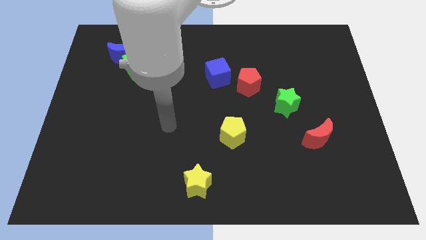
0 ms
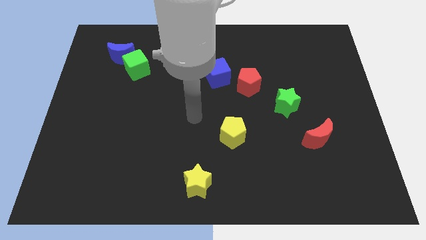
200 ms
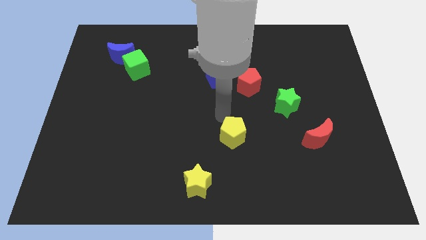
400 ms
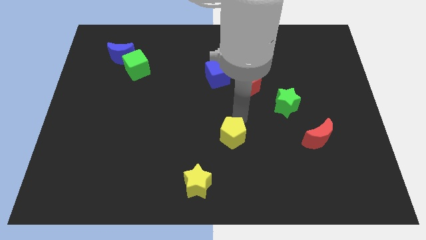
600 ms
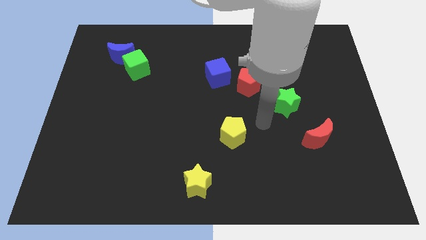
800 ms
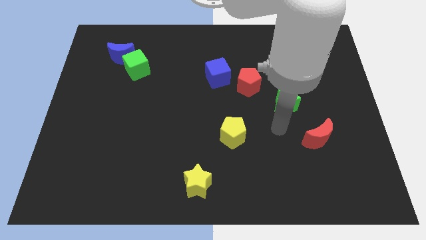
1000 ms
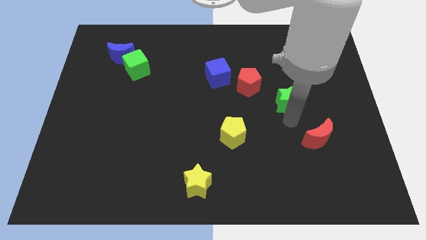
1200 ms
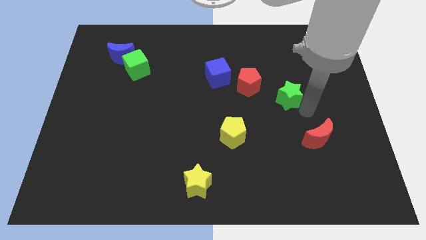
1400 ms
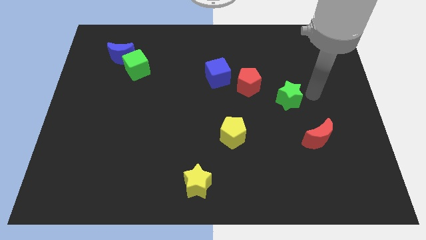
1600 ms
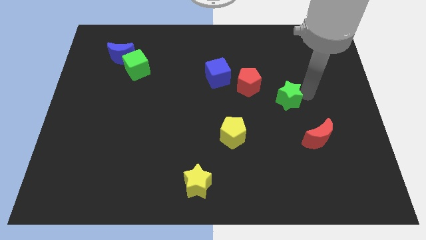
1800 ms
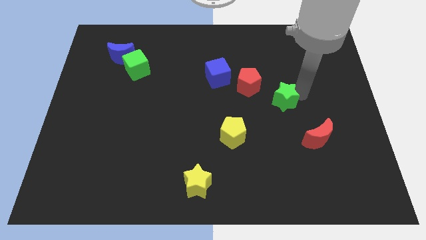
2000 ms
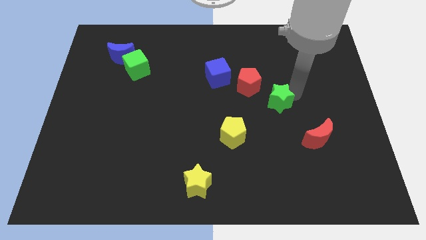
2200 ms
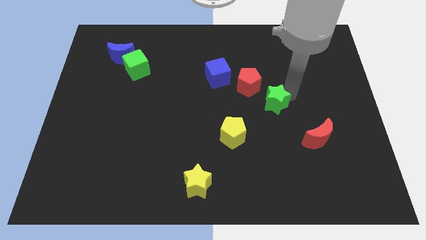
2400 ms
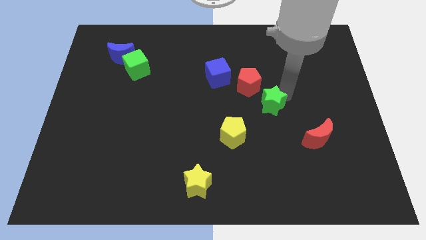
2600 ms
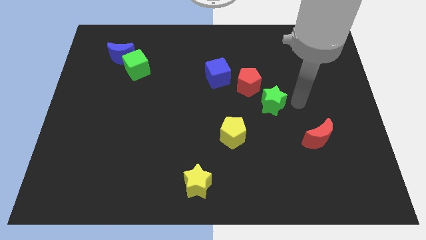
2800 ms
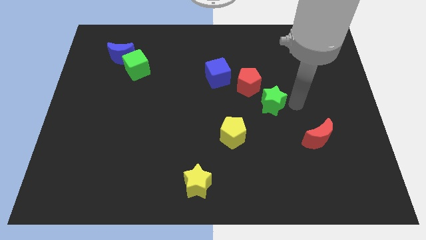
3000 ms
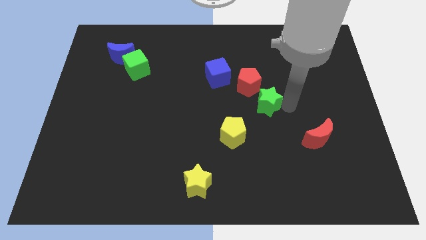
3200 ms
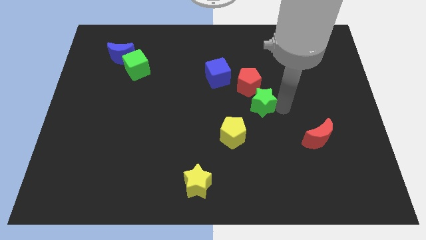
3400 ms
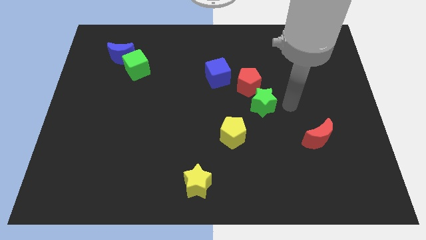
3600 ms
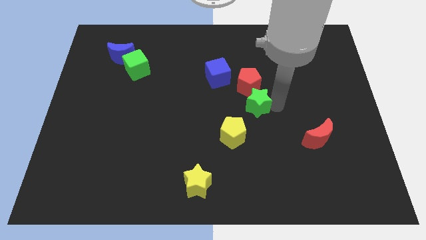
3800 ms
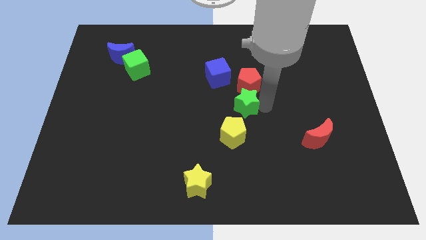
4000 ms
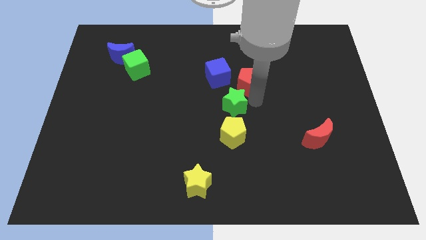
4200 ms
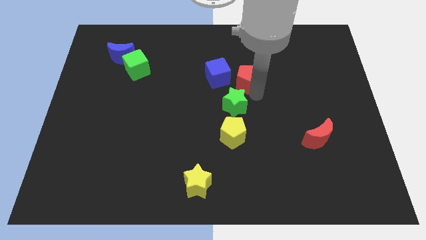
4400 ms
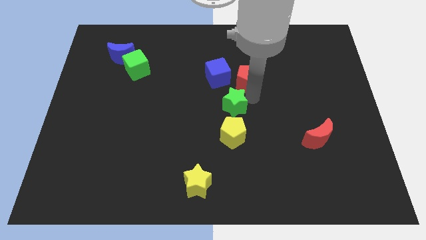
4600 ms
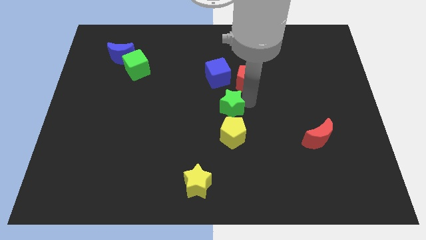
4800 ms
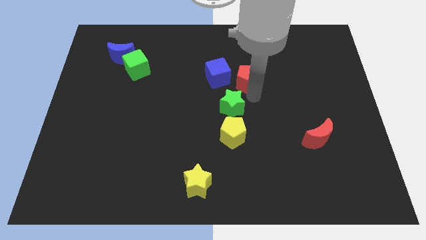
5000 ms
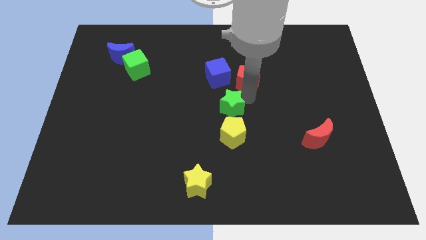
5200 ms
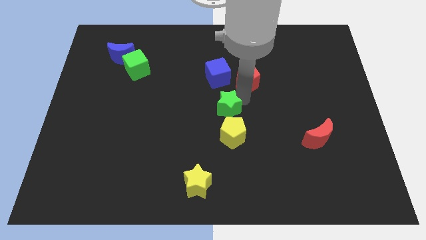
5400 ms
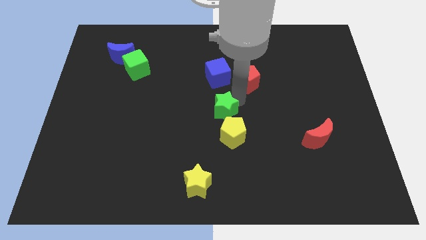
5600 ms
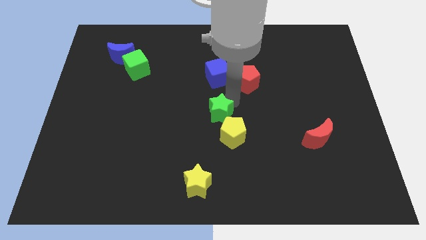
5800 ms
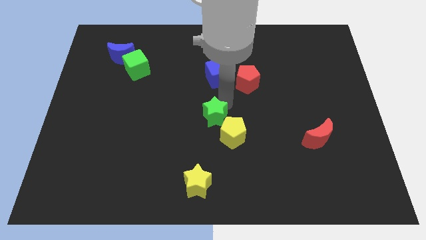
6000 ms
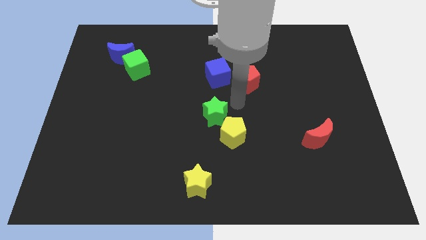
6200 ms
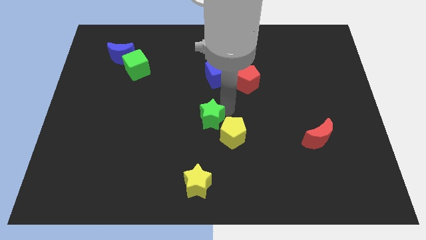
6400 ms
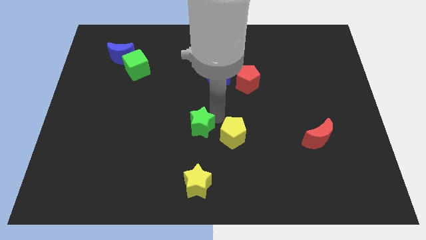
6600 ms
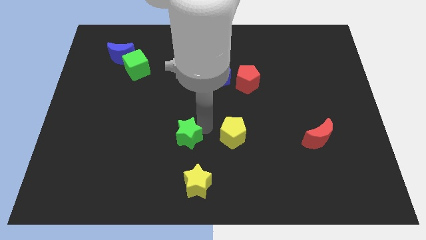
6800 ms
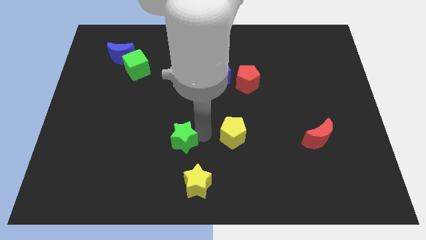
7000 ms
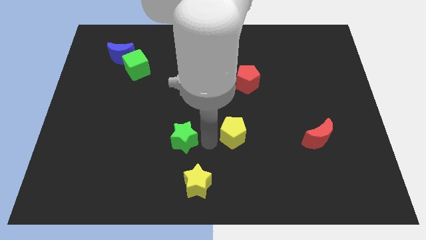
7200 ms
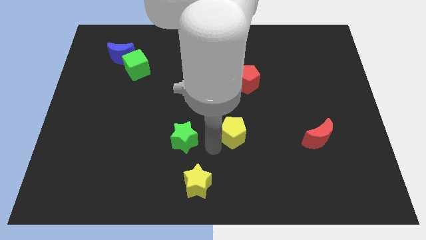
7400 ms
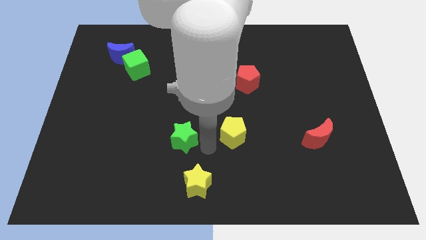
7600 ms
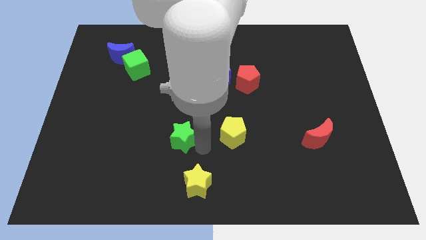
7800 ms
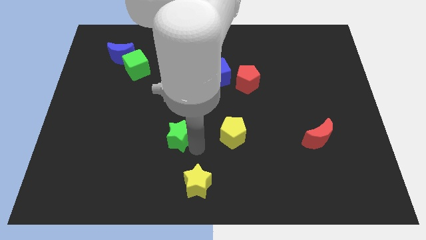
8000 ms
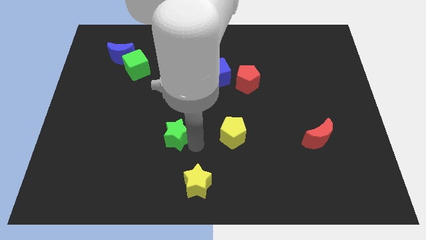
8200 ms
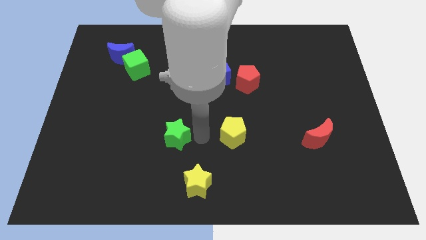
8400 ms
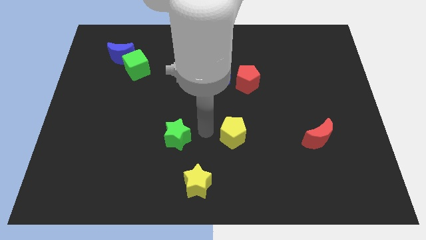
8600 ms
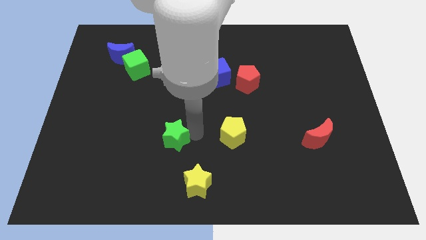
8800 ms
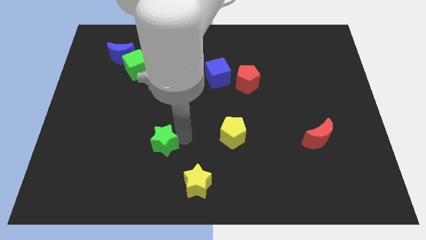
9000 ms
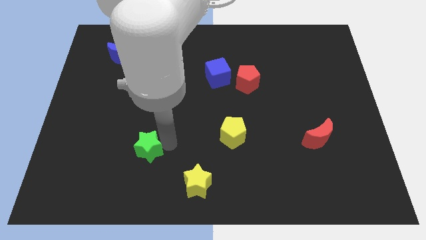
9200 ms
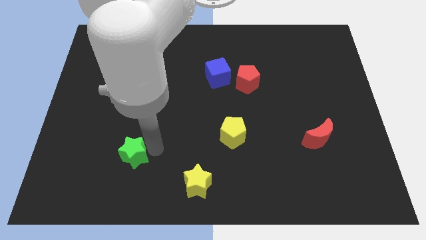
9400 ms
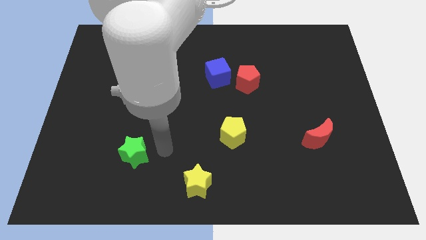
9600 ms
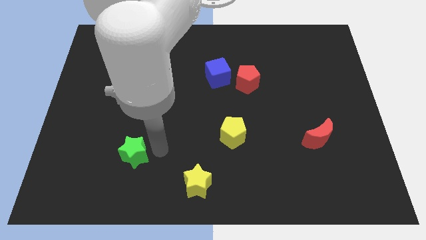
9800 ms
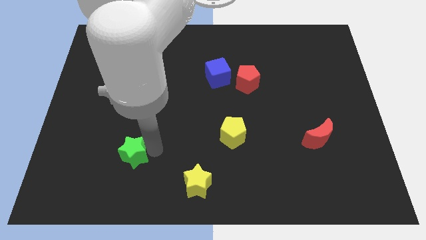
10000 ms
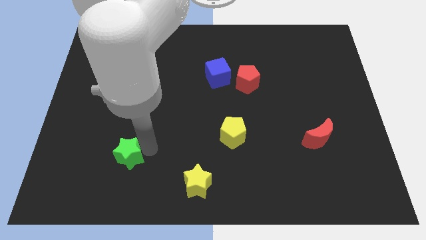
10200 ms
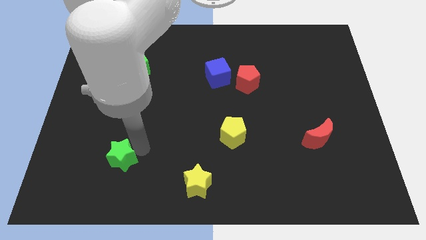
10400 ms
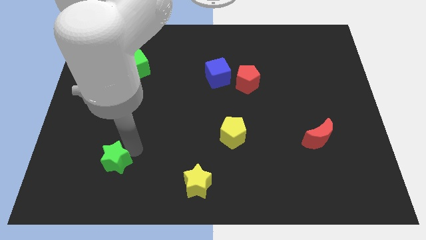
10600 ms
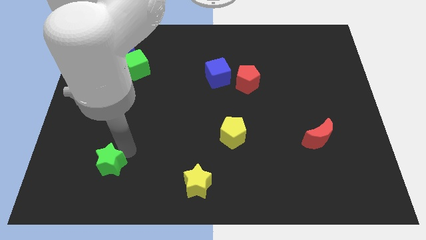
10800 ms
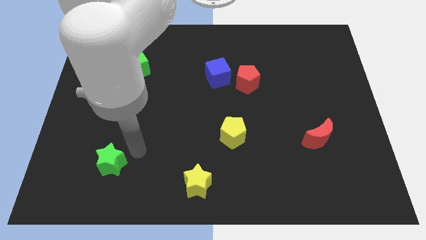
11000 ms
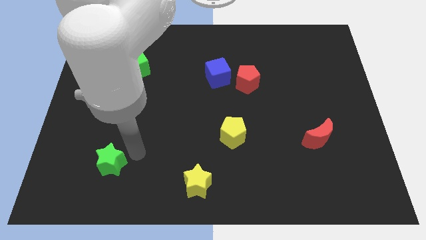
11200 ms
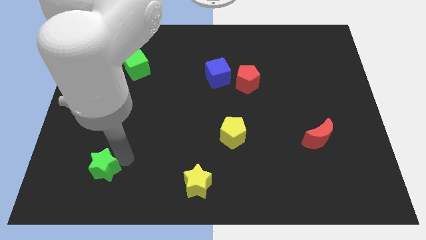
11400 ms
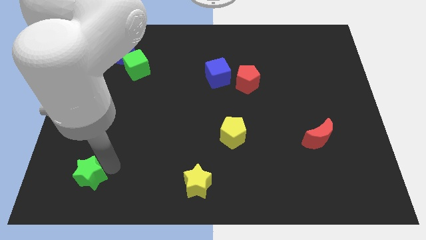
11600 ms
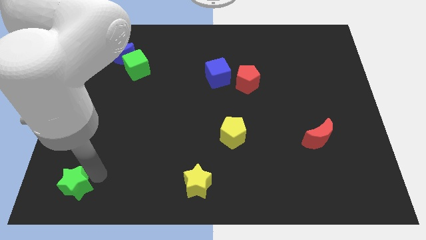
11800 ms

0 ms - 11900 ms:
put the green star to the bottom left of the board

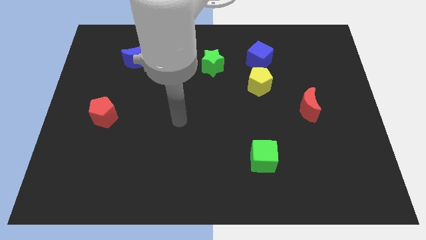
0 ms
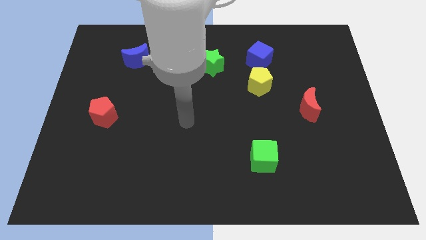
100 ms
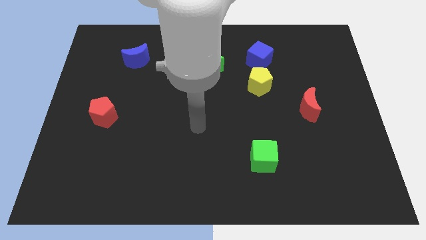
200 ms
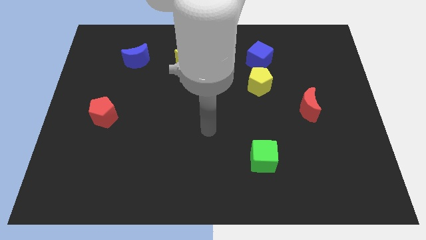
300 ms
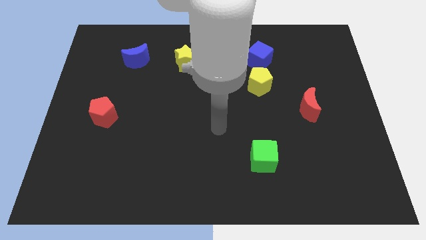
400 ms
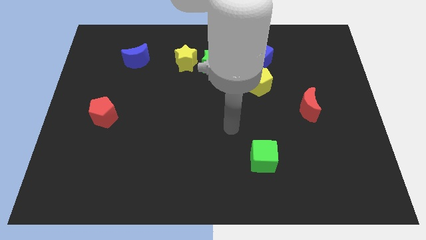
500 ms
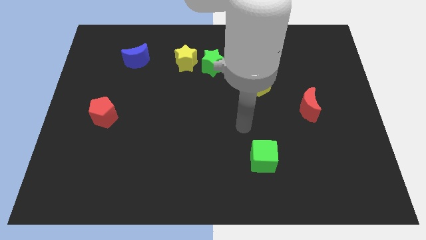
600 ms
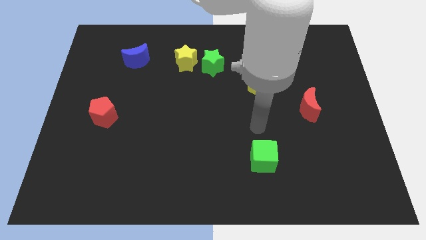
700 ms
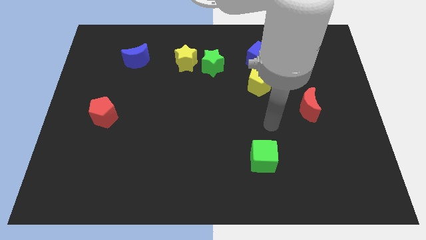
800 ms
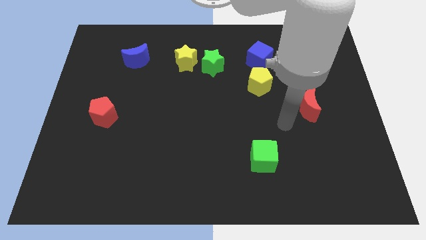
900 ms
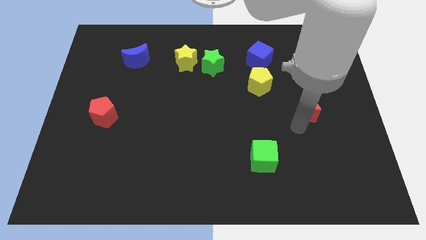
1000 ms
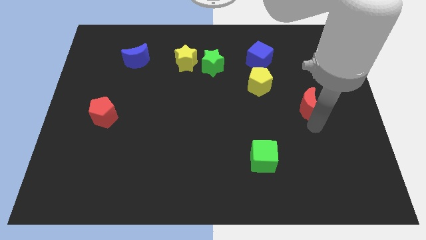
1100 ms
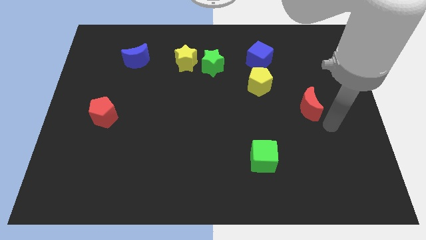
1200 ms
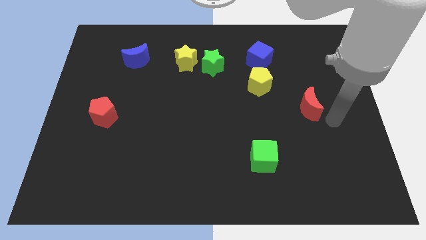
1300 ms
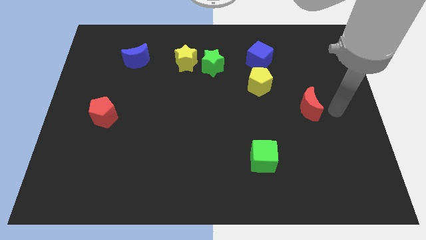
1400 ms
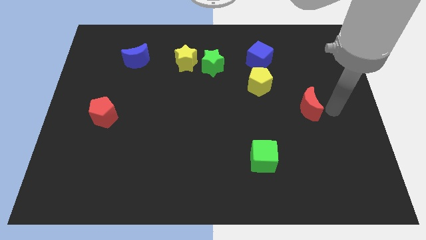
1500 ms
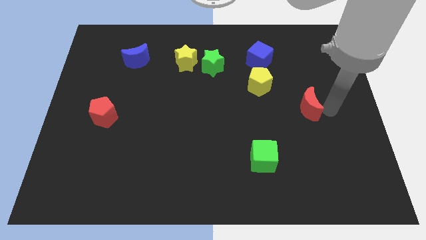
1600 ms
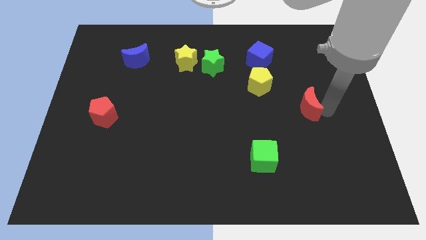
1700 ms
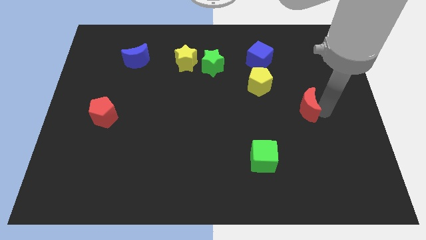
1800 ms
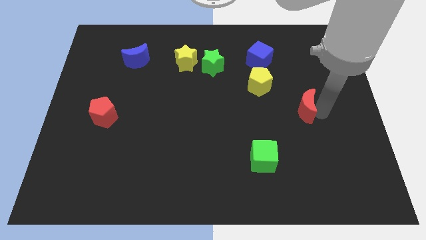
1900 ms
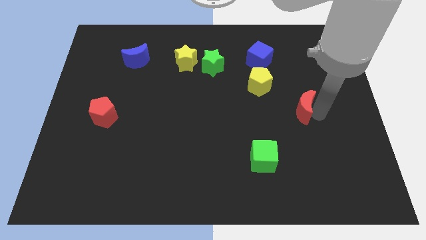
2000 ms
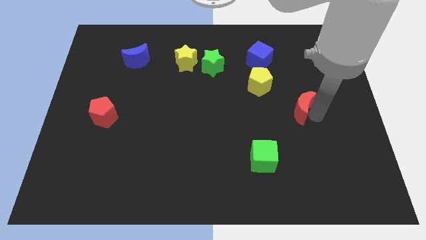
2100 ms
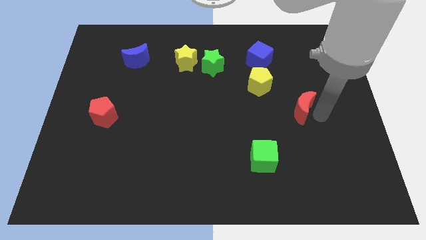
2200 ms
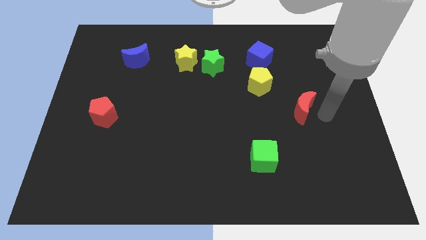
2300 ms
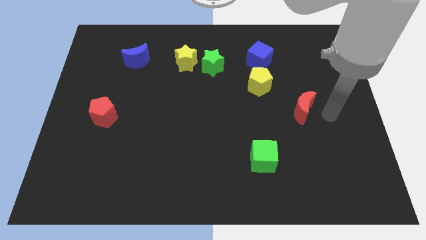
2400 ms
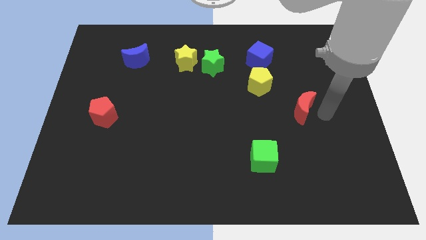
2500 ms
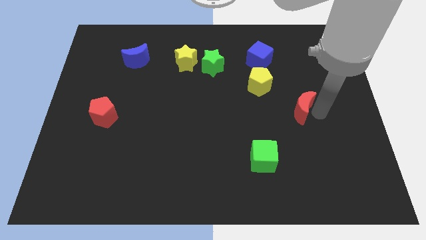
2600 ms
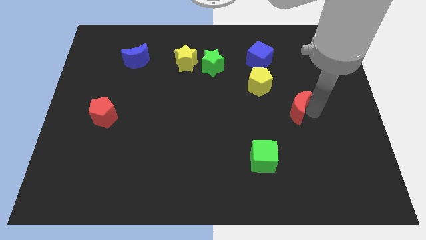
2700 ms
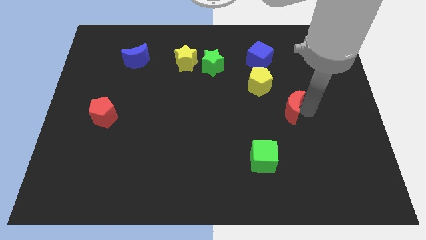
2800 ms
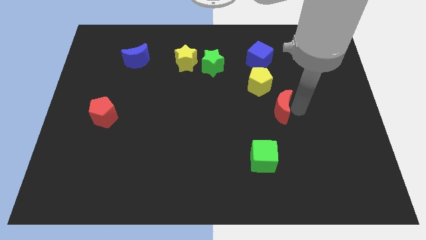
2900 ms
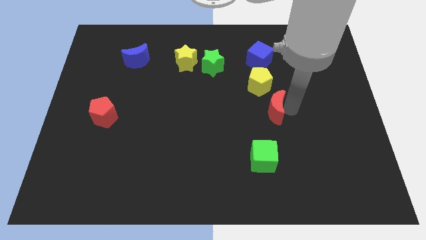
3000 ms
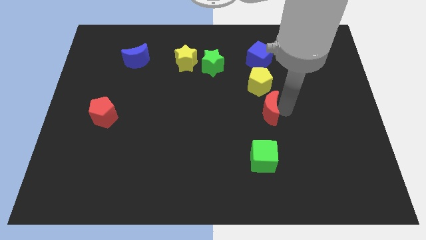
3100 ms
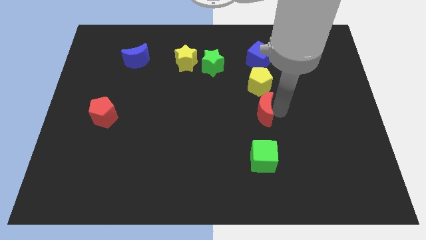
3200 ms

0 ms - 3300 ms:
slide the red moon to the middle of the board
